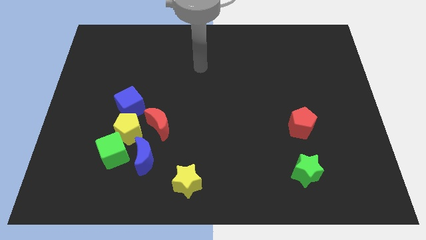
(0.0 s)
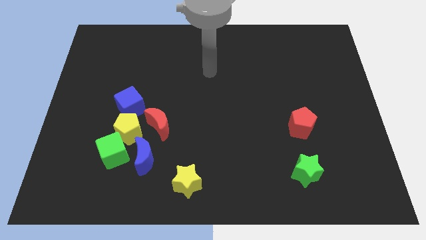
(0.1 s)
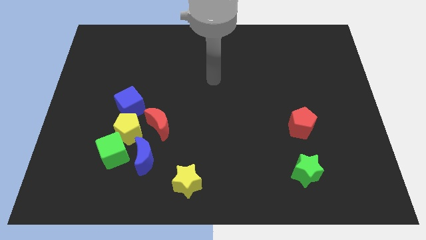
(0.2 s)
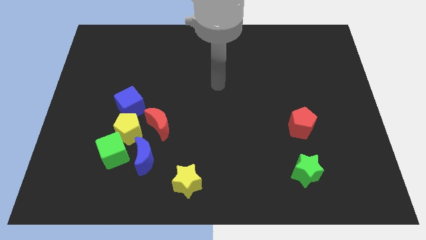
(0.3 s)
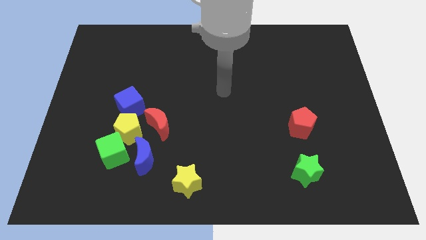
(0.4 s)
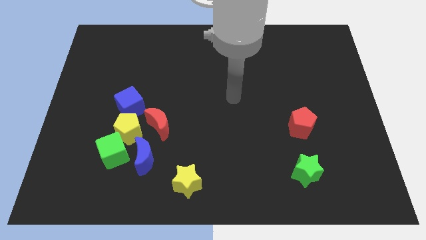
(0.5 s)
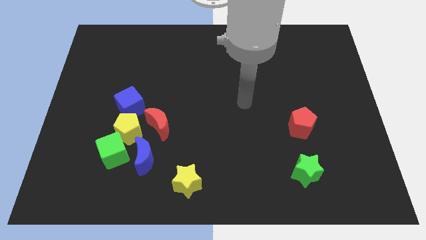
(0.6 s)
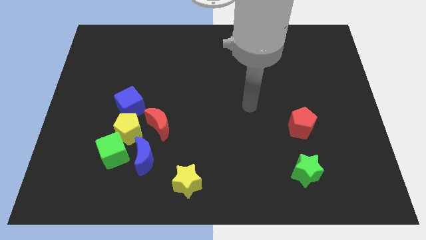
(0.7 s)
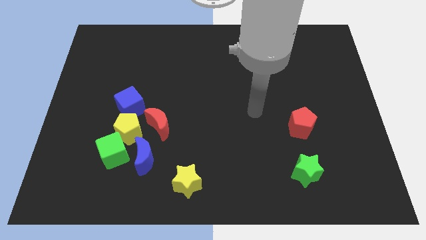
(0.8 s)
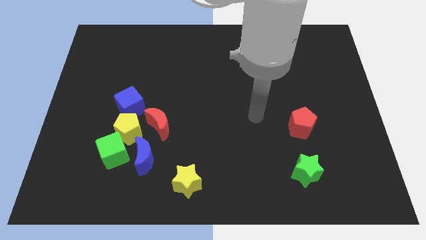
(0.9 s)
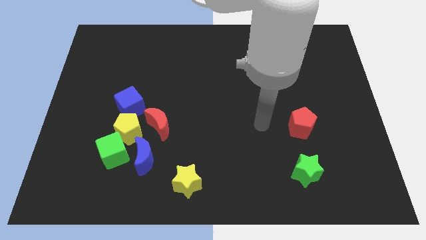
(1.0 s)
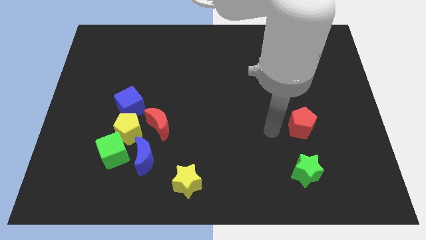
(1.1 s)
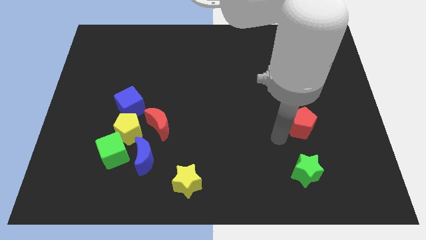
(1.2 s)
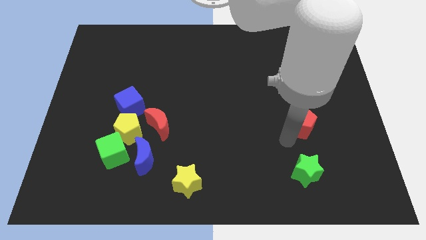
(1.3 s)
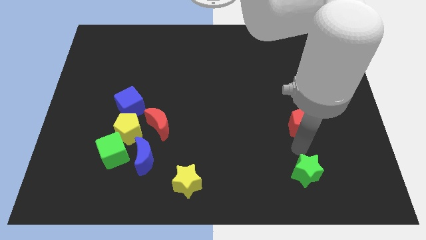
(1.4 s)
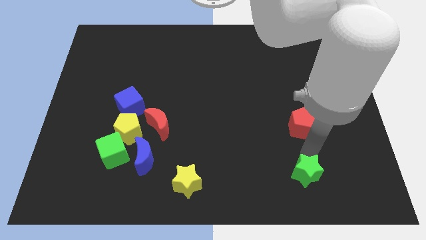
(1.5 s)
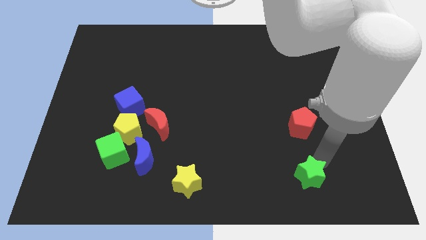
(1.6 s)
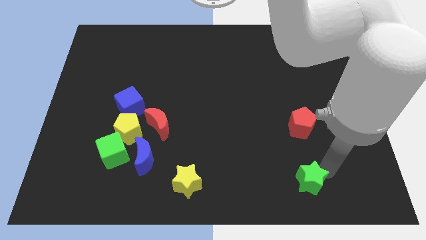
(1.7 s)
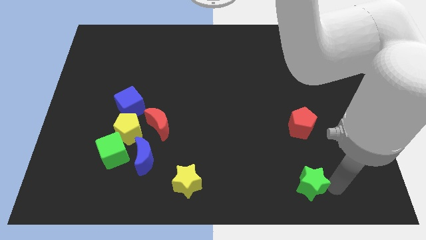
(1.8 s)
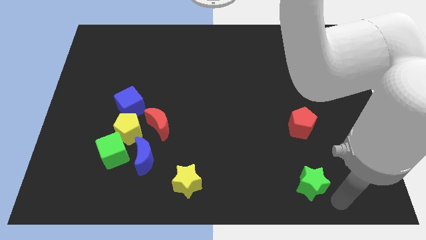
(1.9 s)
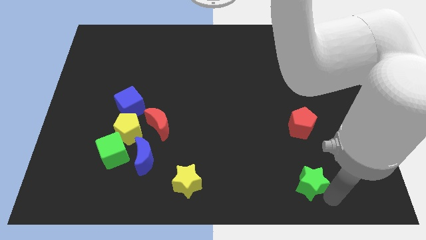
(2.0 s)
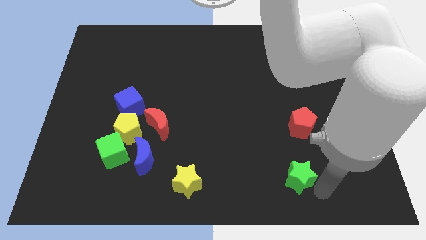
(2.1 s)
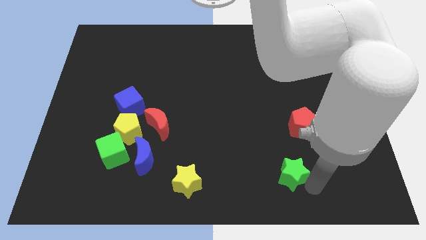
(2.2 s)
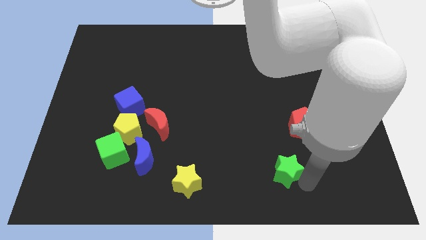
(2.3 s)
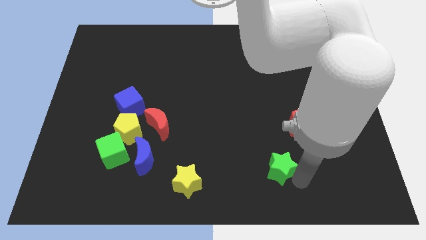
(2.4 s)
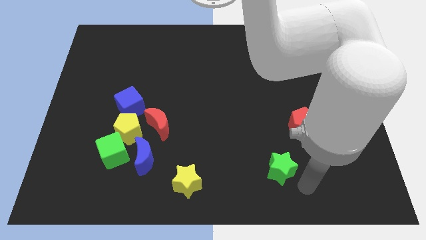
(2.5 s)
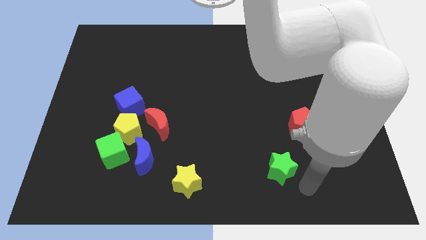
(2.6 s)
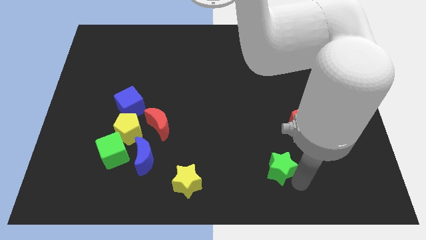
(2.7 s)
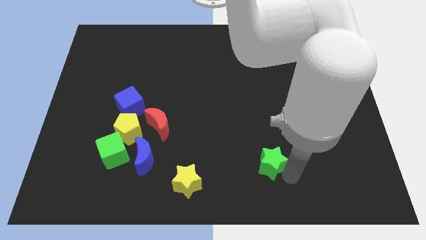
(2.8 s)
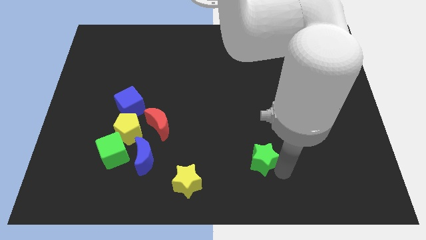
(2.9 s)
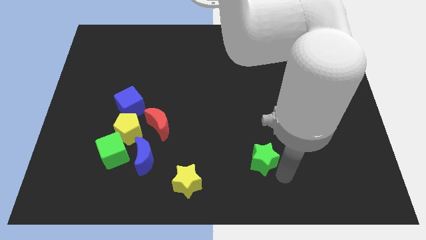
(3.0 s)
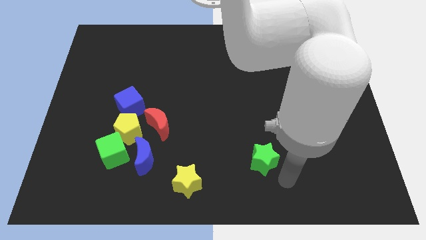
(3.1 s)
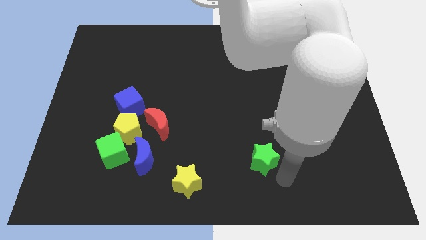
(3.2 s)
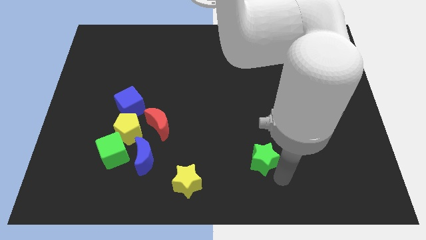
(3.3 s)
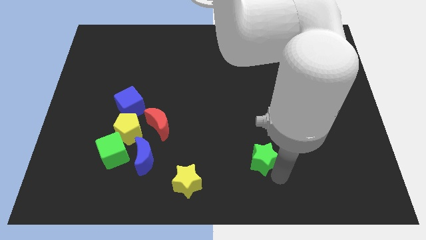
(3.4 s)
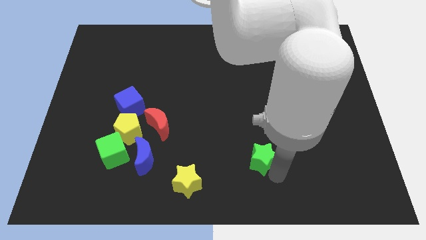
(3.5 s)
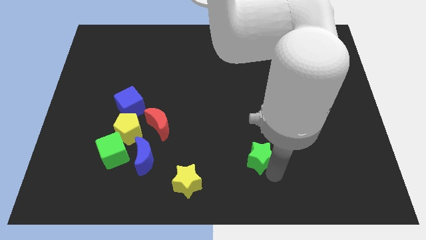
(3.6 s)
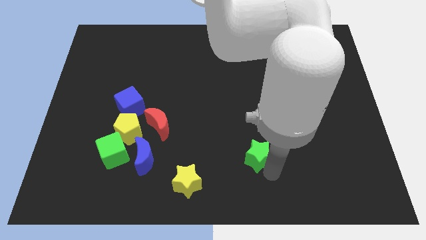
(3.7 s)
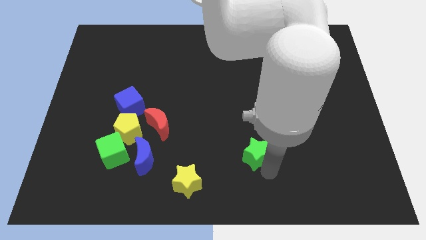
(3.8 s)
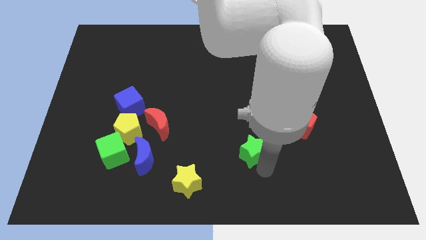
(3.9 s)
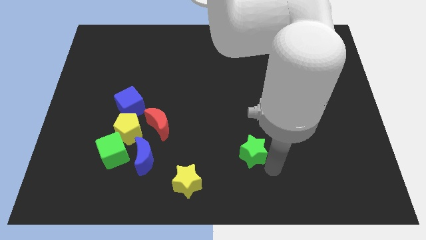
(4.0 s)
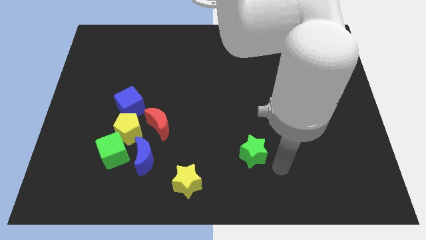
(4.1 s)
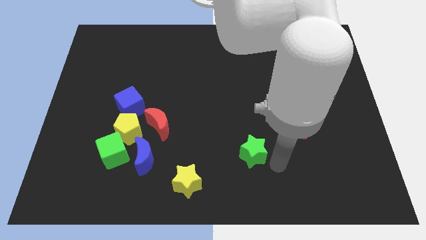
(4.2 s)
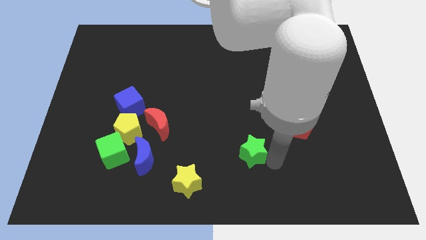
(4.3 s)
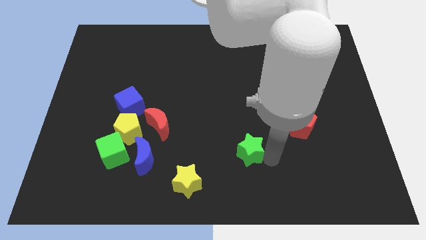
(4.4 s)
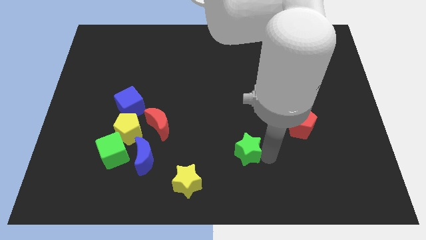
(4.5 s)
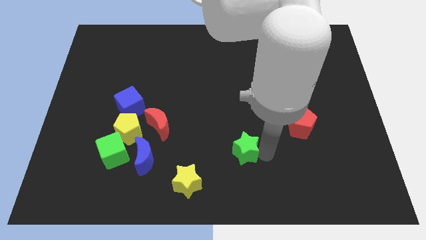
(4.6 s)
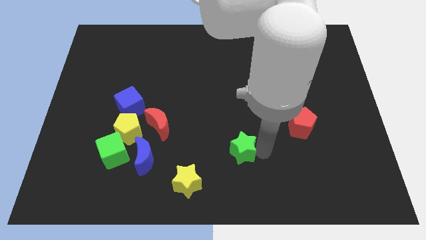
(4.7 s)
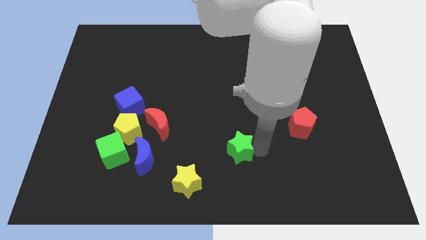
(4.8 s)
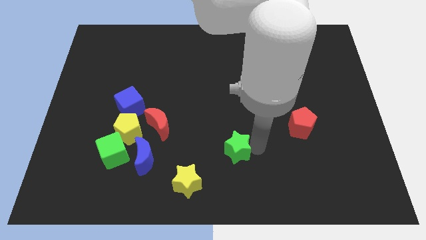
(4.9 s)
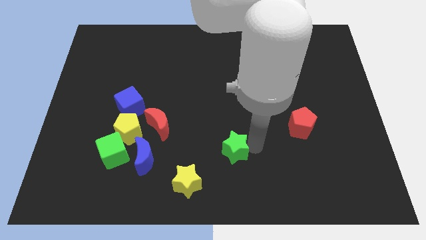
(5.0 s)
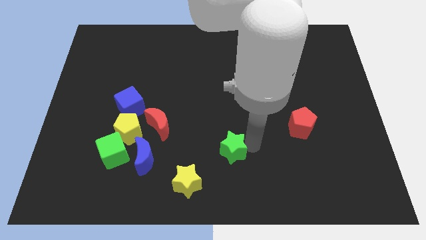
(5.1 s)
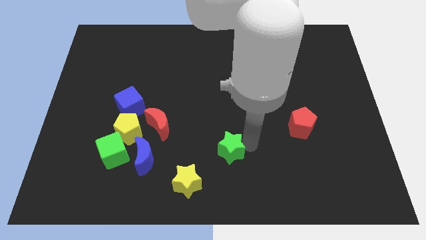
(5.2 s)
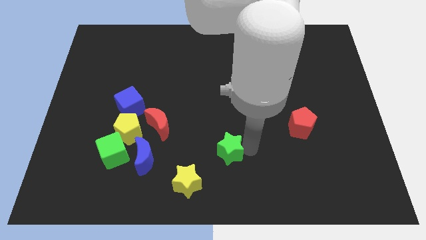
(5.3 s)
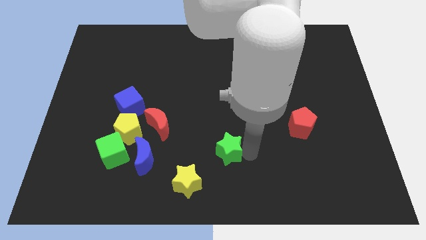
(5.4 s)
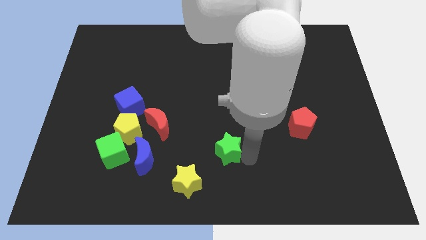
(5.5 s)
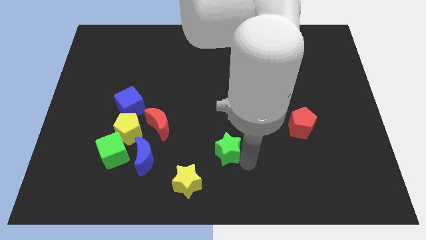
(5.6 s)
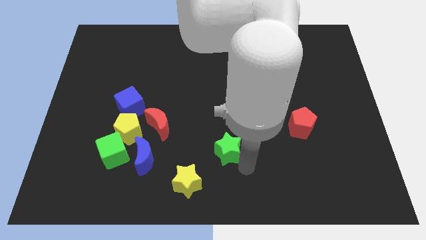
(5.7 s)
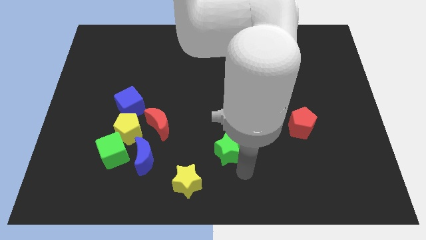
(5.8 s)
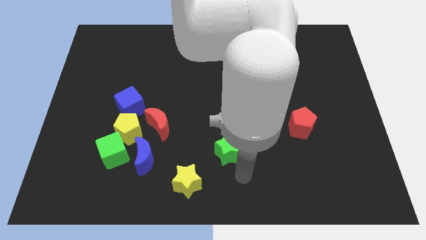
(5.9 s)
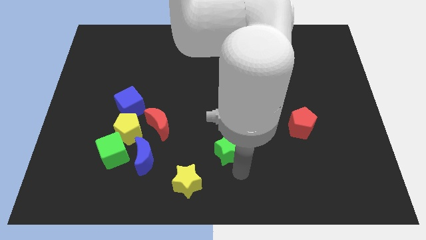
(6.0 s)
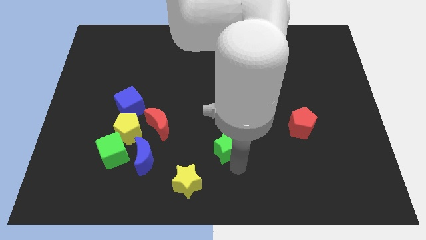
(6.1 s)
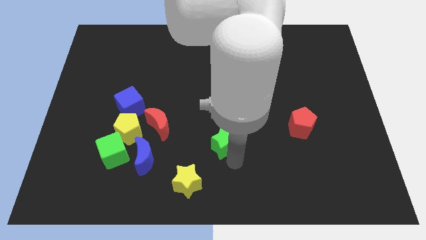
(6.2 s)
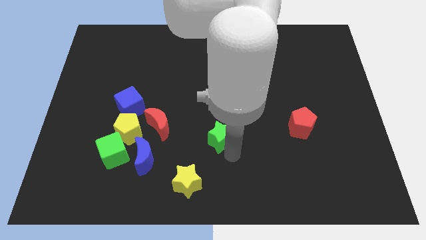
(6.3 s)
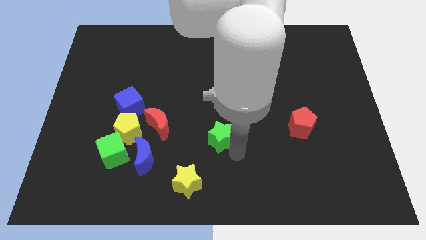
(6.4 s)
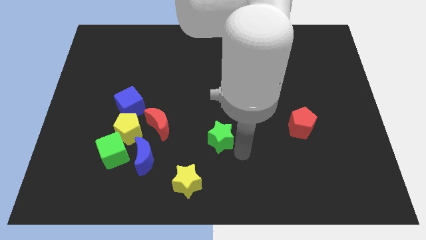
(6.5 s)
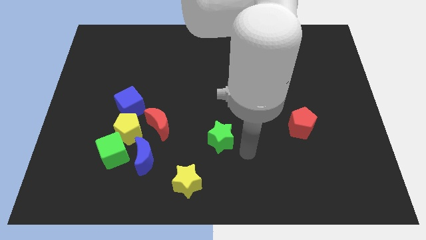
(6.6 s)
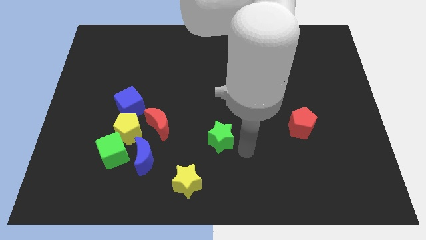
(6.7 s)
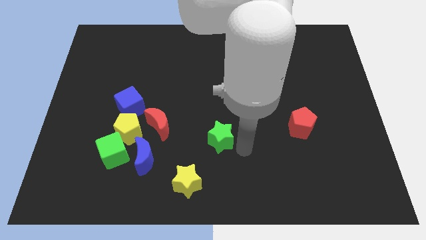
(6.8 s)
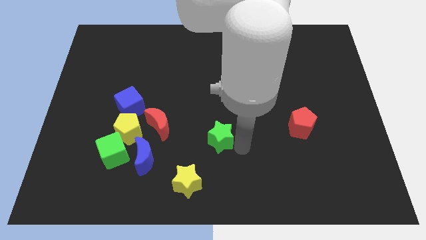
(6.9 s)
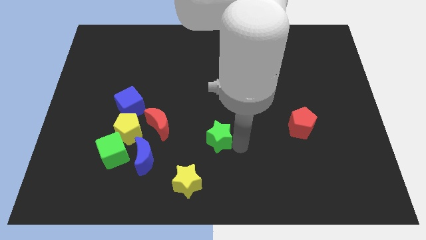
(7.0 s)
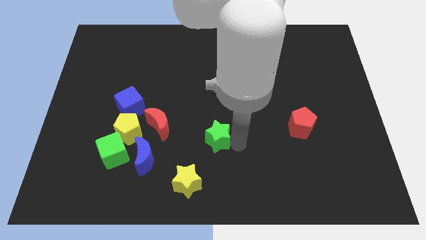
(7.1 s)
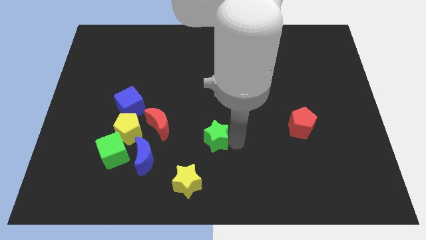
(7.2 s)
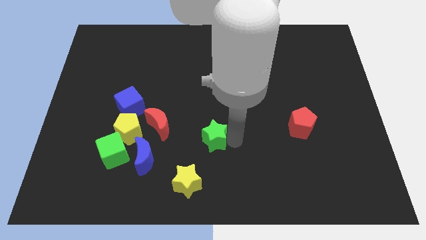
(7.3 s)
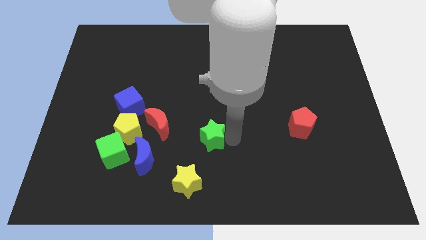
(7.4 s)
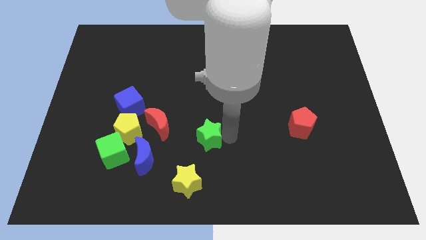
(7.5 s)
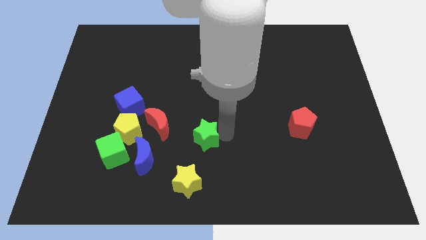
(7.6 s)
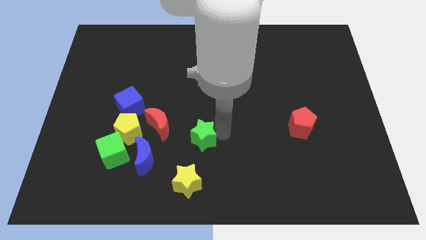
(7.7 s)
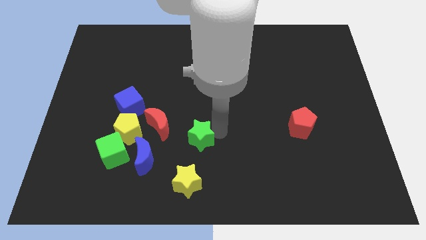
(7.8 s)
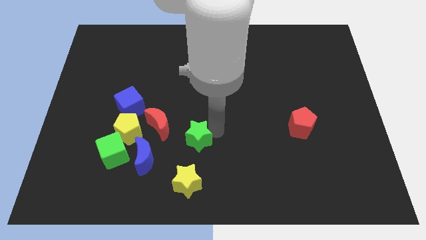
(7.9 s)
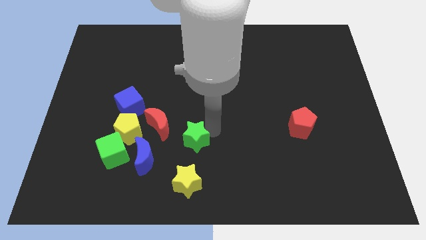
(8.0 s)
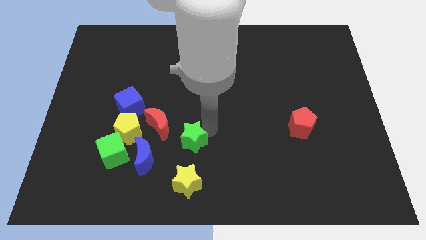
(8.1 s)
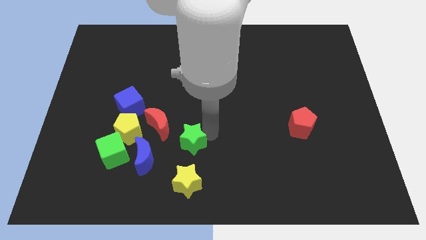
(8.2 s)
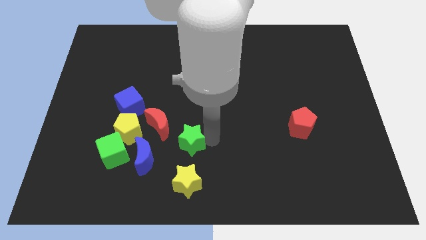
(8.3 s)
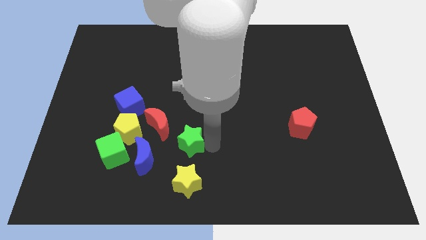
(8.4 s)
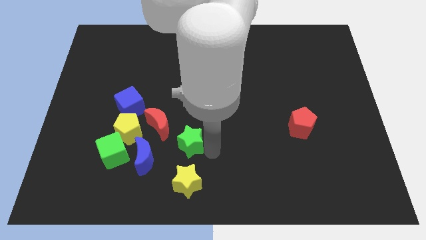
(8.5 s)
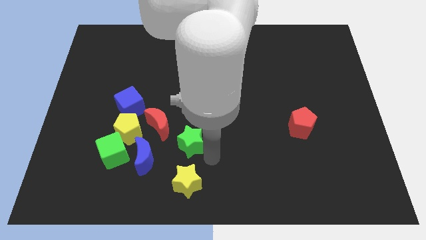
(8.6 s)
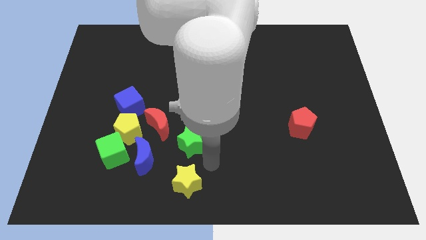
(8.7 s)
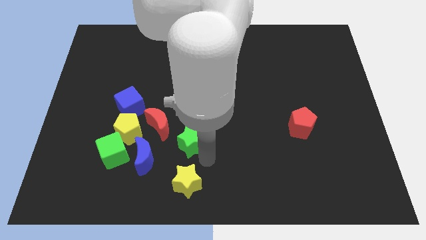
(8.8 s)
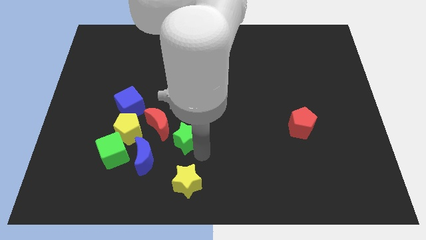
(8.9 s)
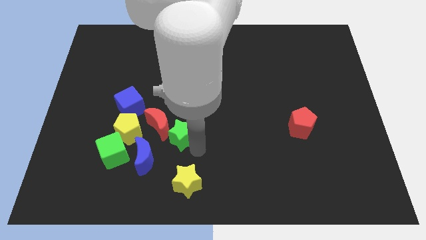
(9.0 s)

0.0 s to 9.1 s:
move the green star towards the red moon
